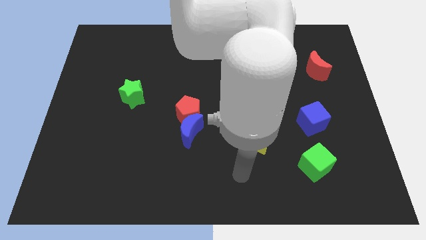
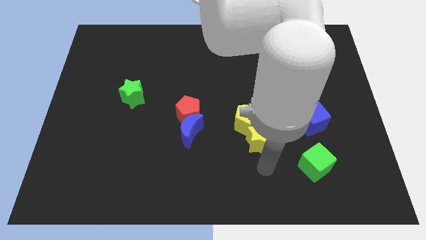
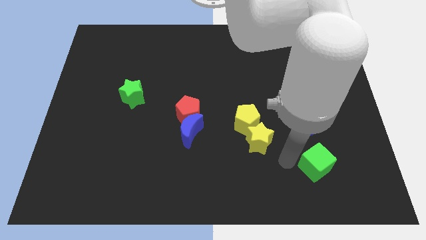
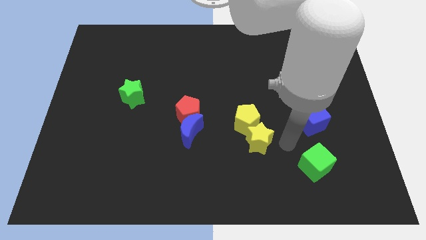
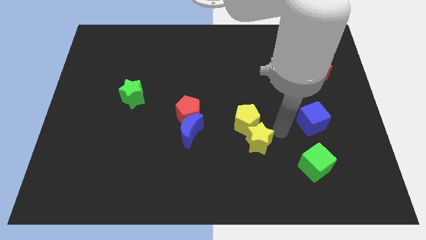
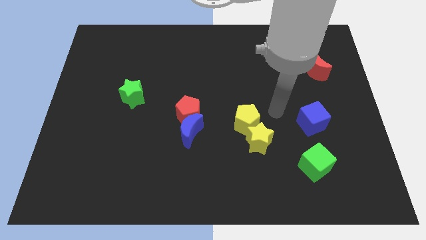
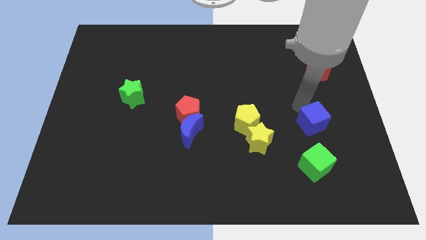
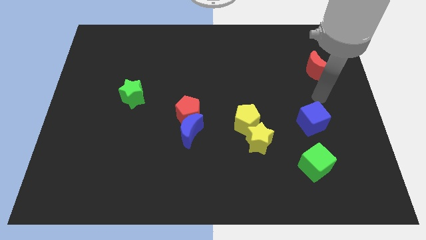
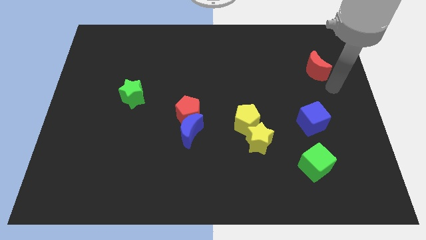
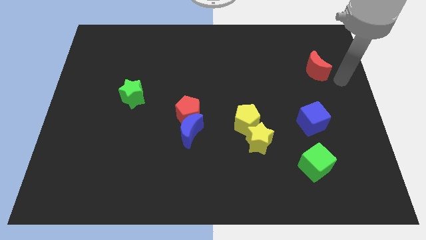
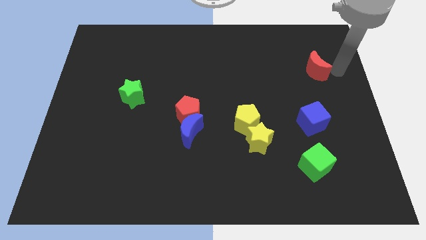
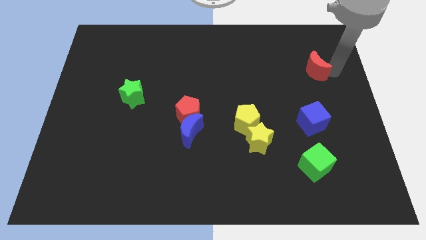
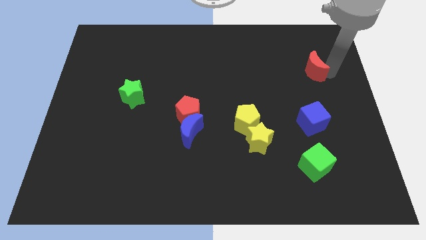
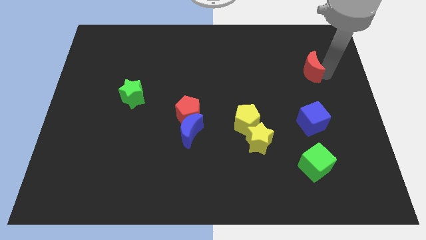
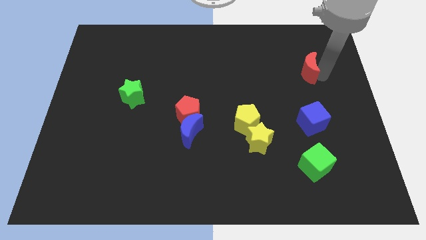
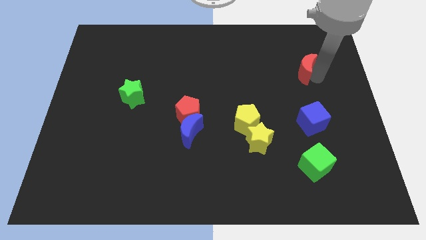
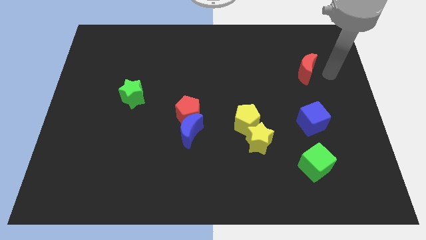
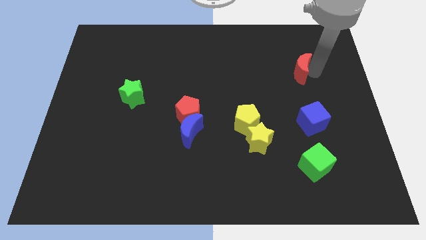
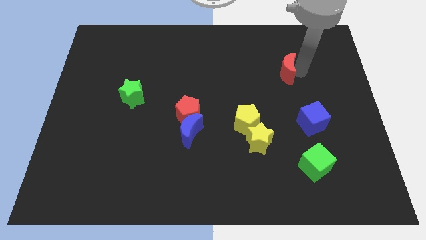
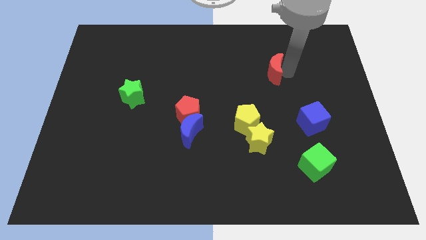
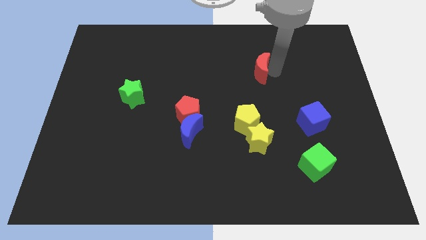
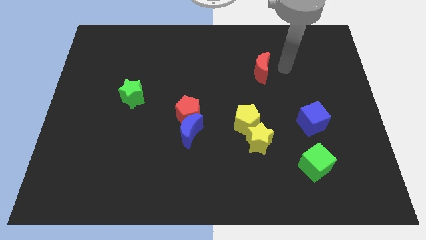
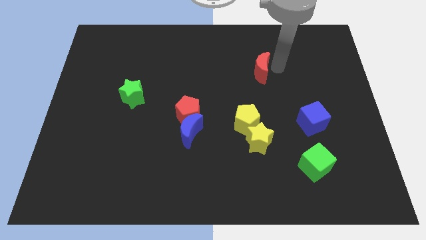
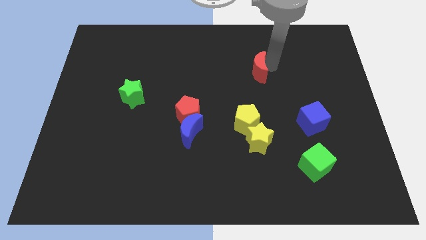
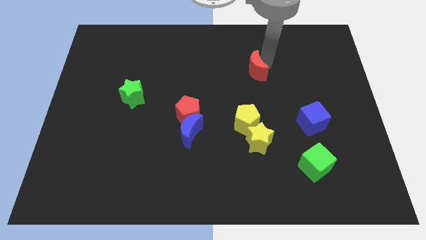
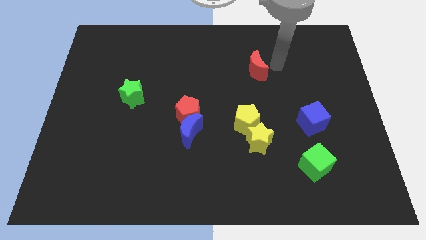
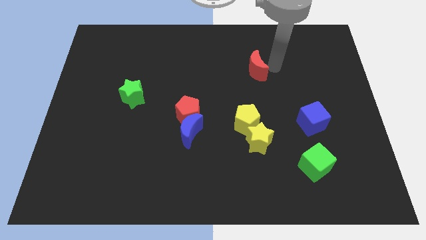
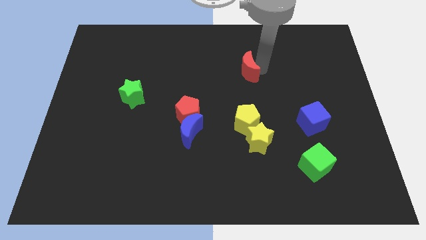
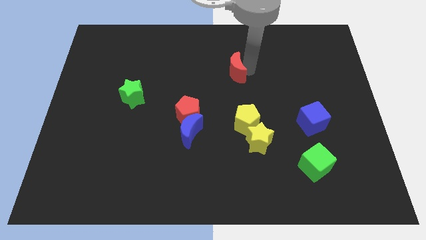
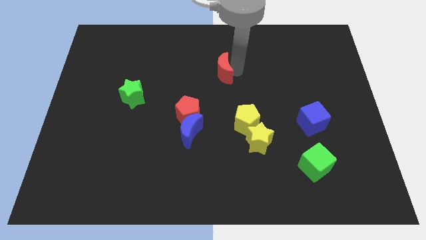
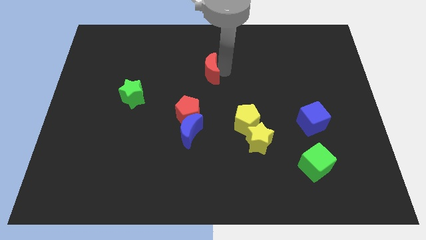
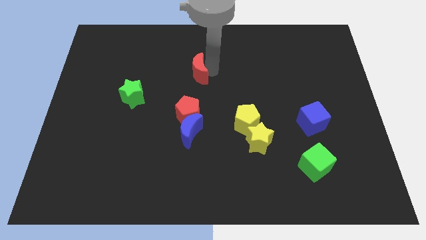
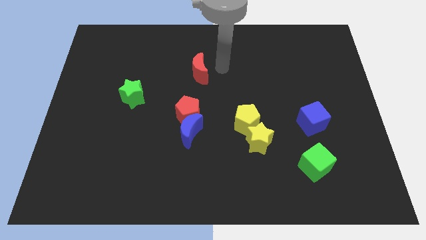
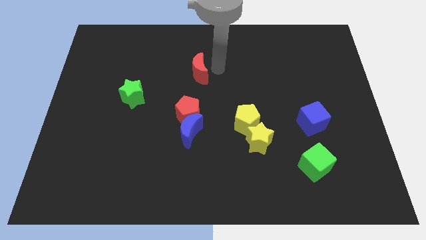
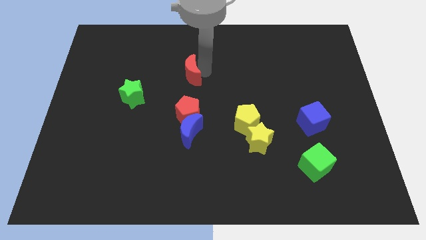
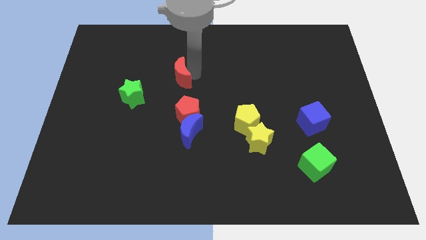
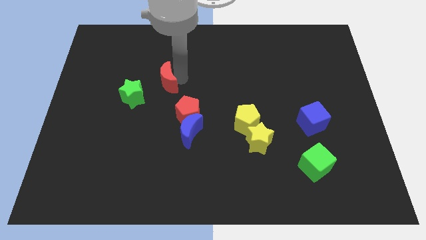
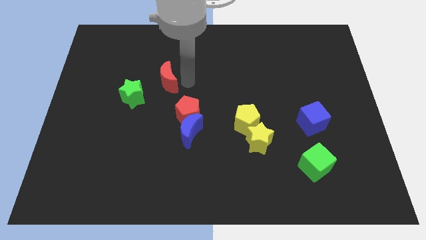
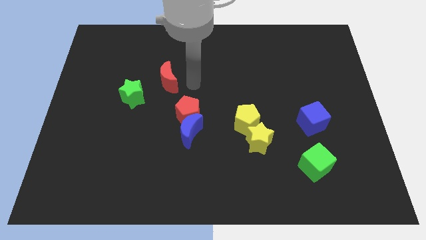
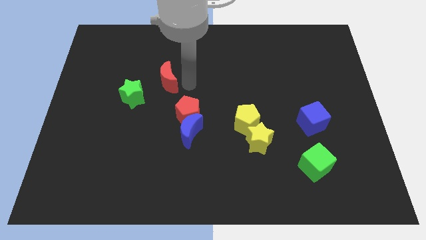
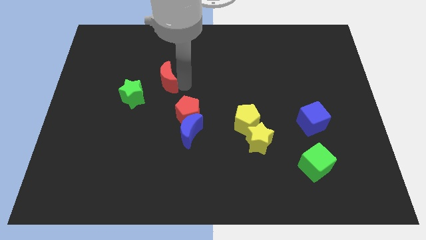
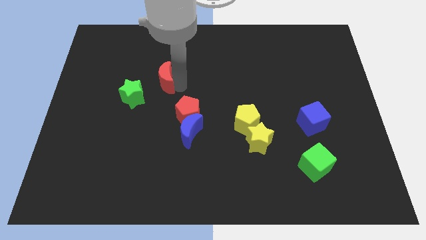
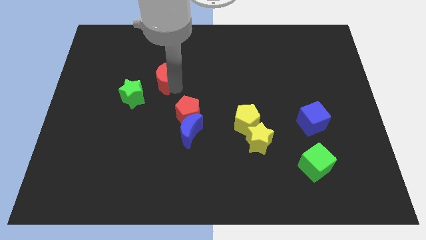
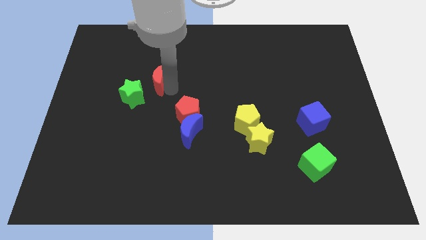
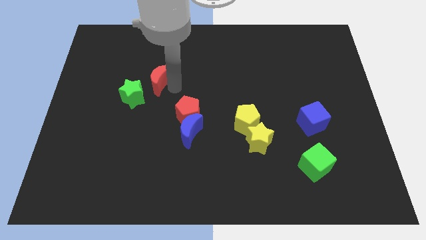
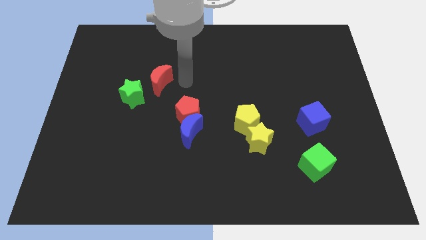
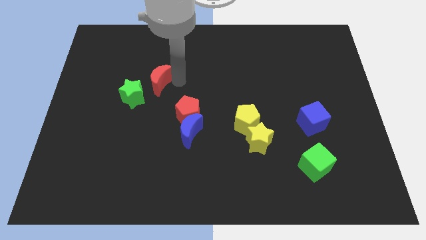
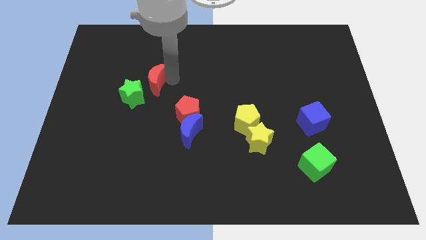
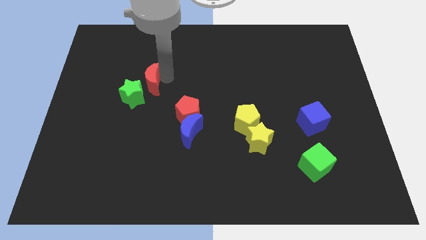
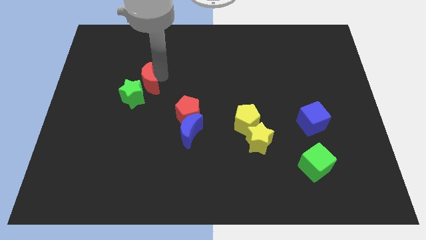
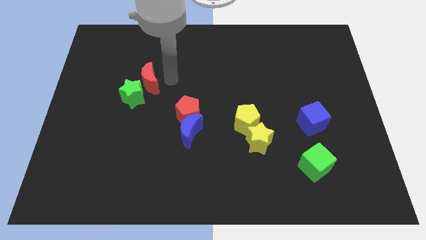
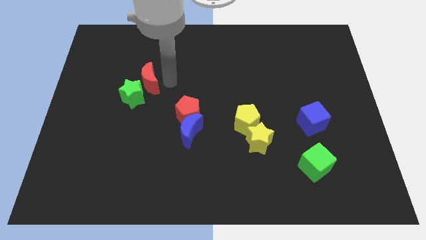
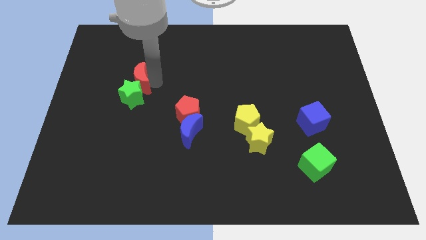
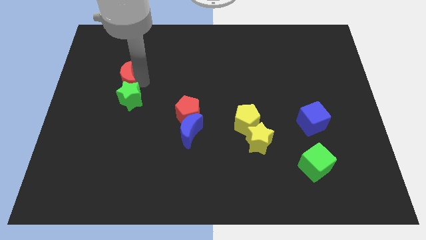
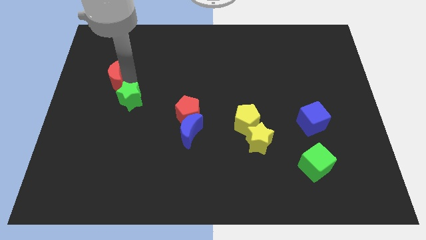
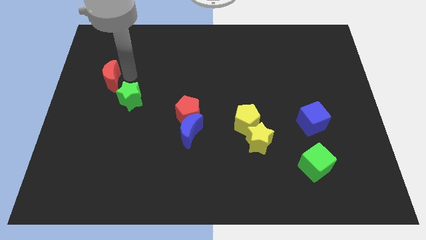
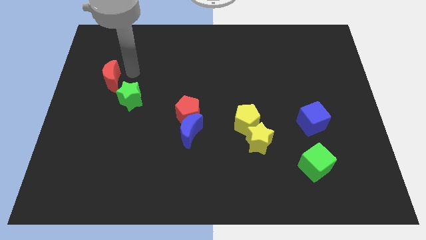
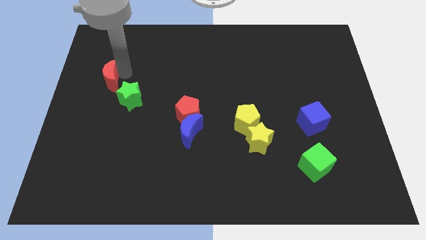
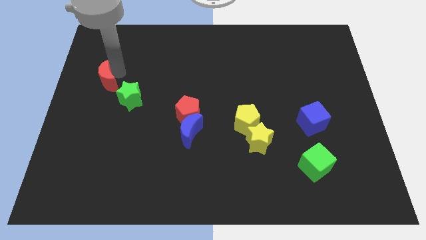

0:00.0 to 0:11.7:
push the red moon to the center left
